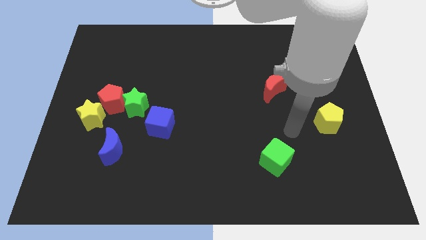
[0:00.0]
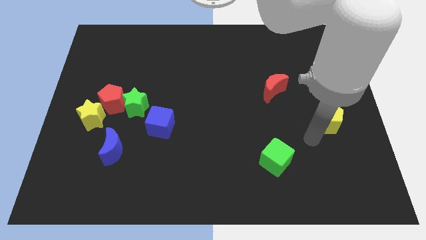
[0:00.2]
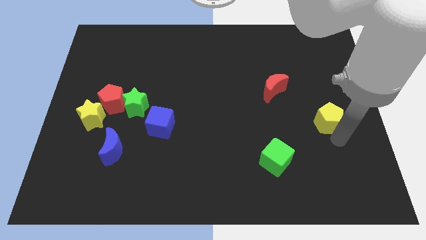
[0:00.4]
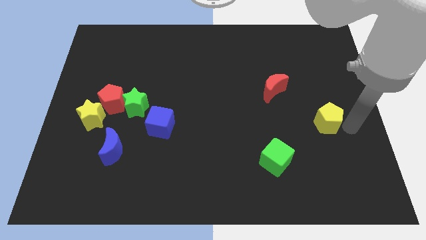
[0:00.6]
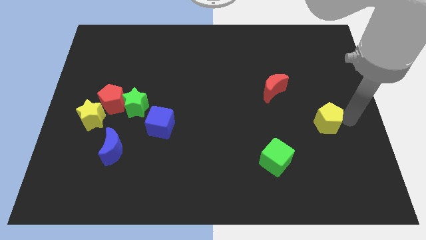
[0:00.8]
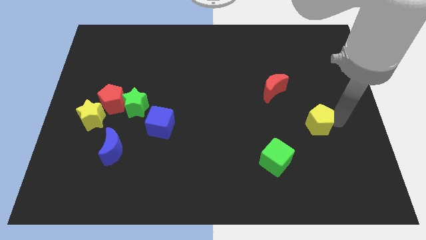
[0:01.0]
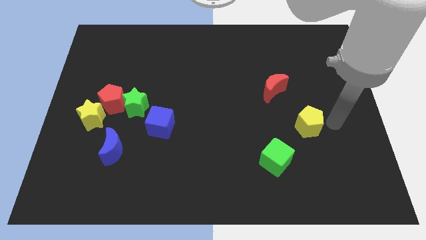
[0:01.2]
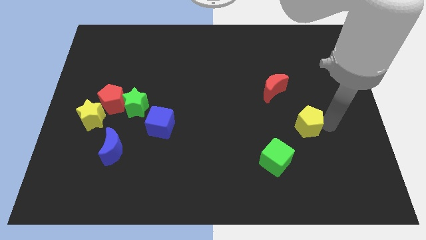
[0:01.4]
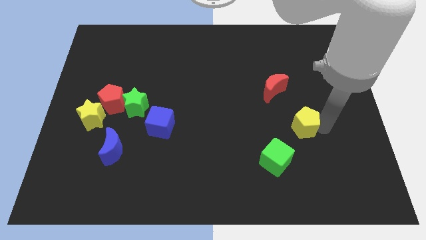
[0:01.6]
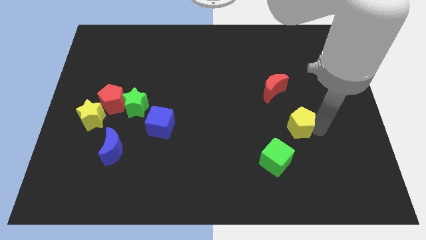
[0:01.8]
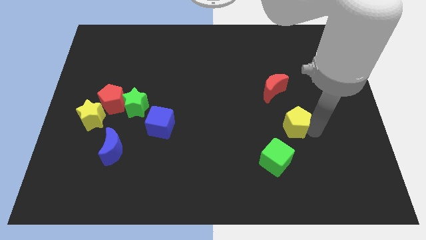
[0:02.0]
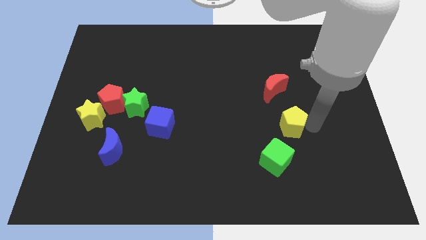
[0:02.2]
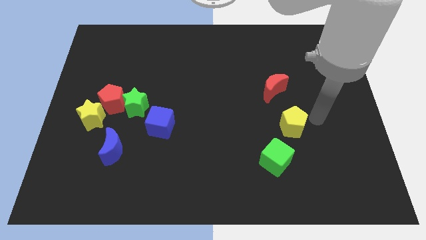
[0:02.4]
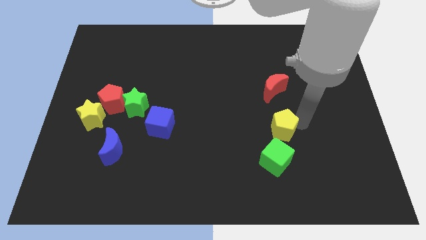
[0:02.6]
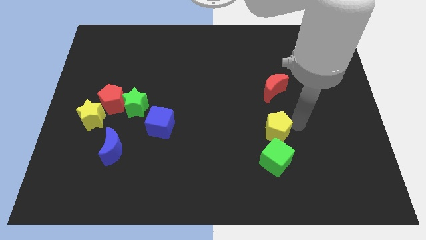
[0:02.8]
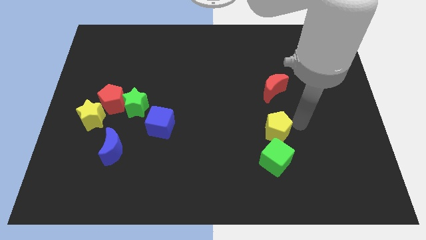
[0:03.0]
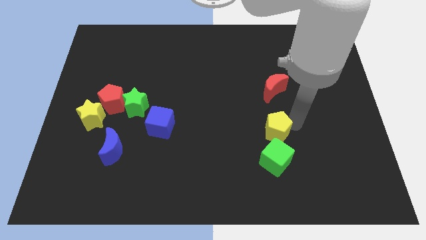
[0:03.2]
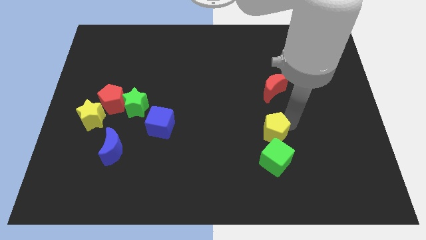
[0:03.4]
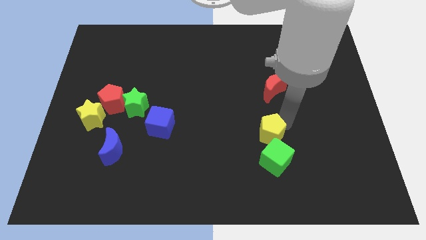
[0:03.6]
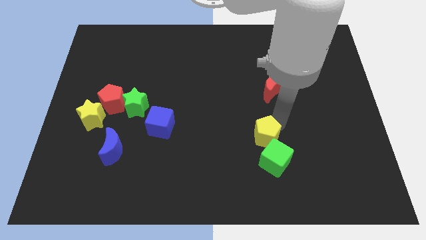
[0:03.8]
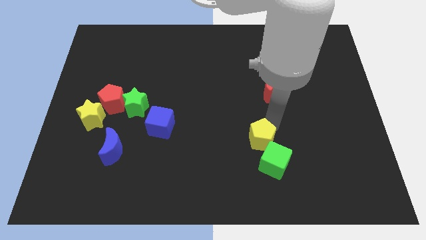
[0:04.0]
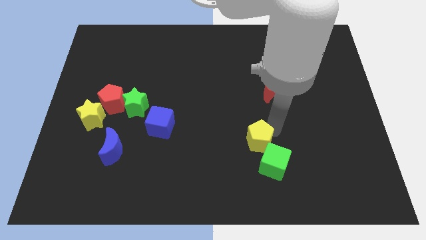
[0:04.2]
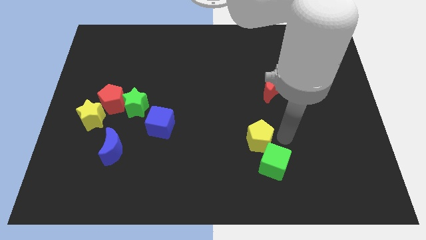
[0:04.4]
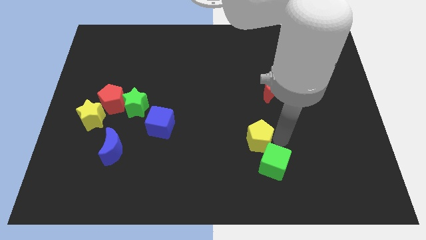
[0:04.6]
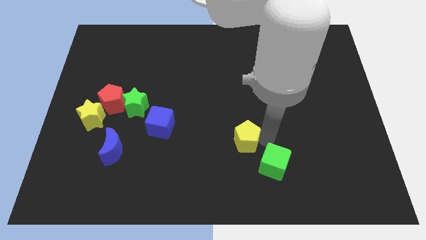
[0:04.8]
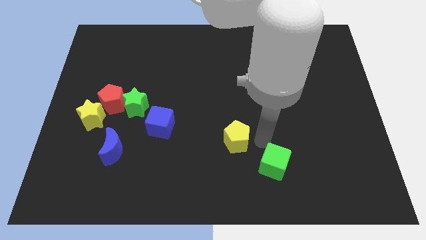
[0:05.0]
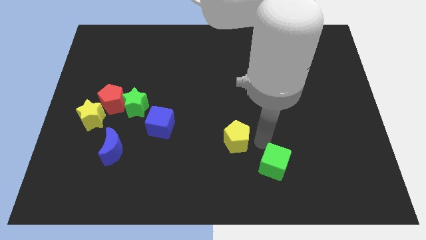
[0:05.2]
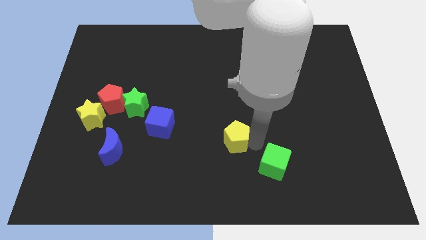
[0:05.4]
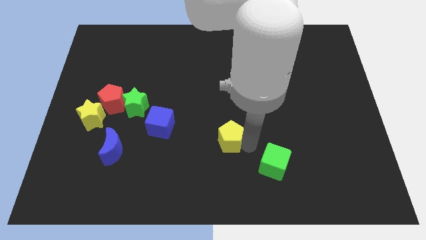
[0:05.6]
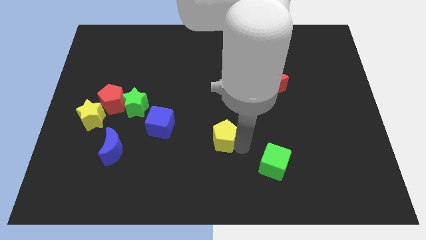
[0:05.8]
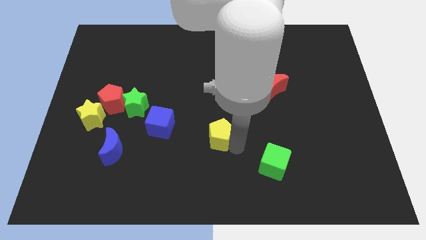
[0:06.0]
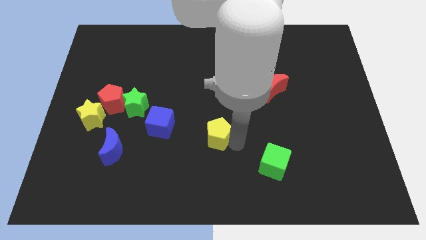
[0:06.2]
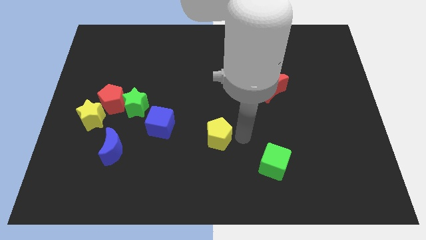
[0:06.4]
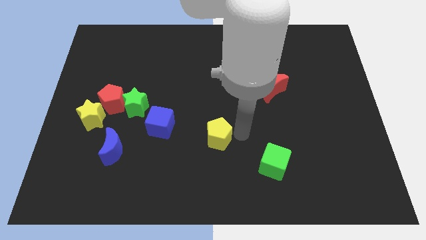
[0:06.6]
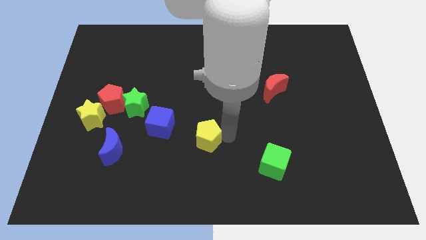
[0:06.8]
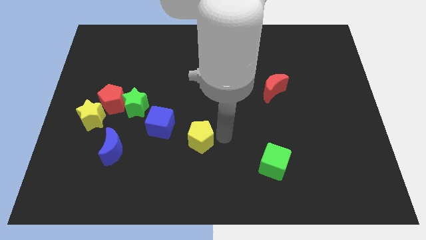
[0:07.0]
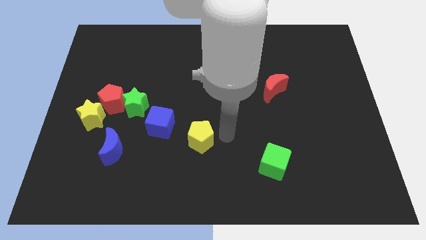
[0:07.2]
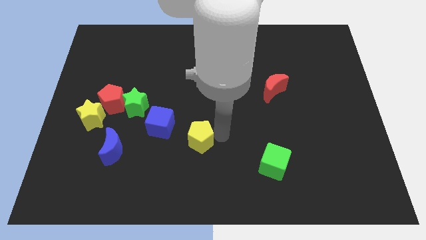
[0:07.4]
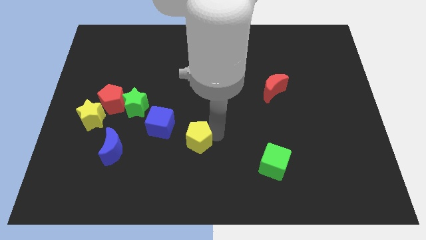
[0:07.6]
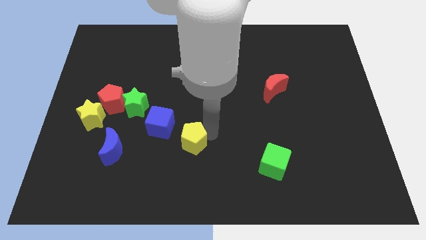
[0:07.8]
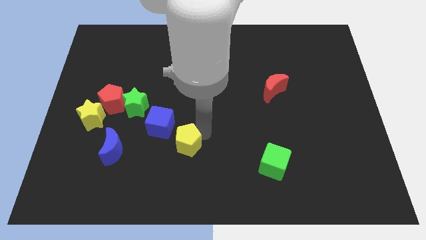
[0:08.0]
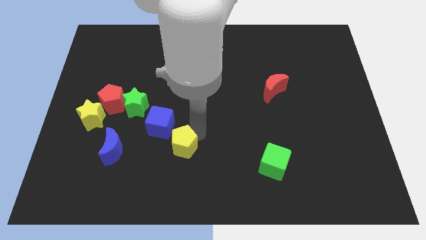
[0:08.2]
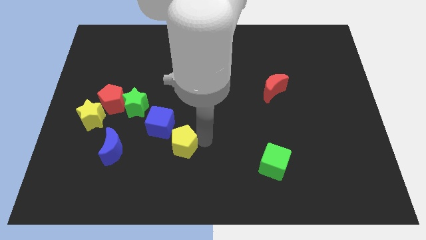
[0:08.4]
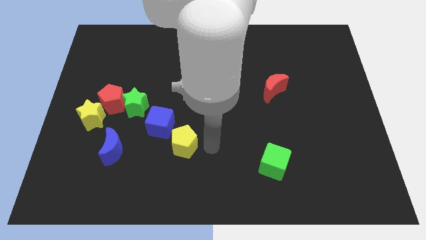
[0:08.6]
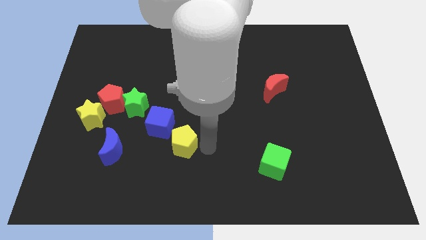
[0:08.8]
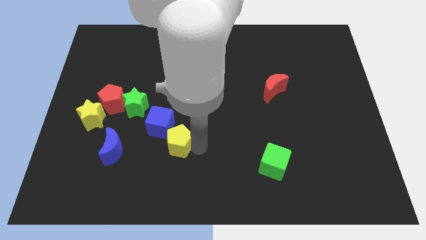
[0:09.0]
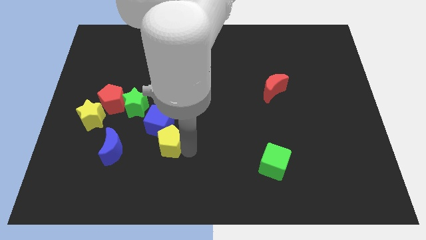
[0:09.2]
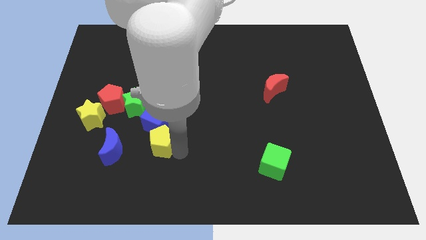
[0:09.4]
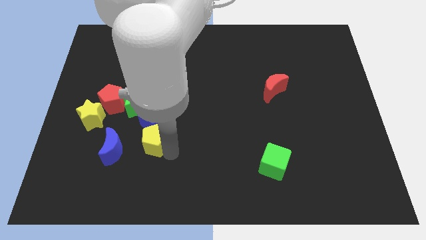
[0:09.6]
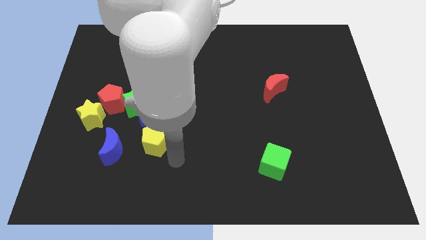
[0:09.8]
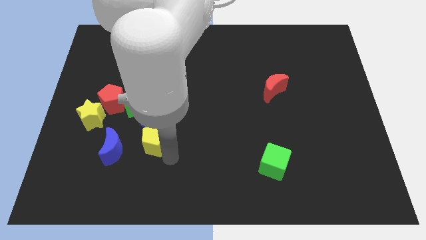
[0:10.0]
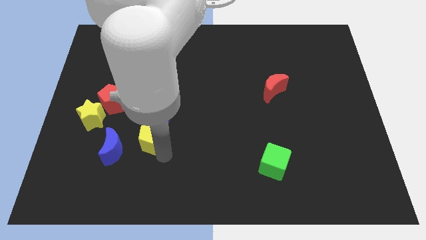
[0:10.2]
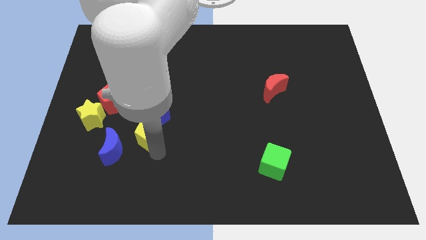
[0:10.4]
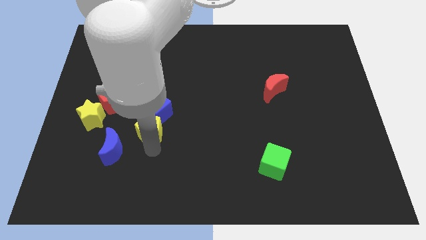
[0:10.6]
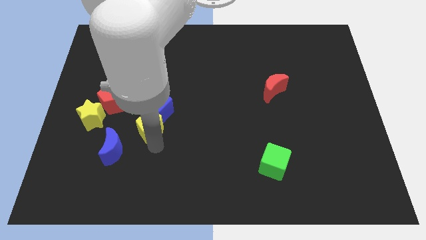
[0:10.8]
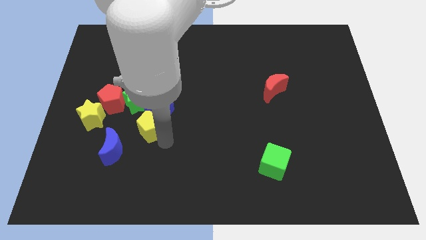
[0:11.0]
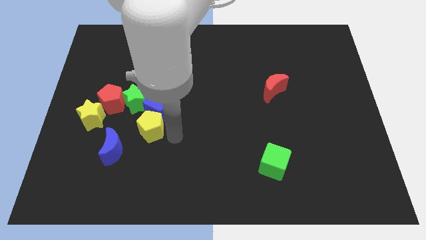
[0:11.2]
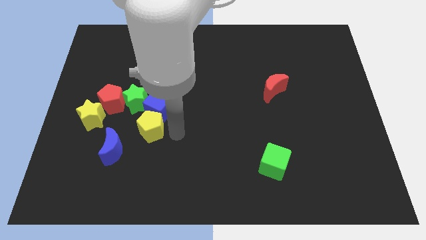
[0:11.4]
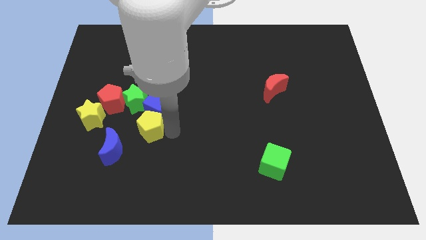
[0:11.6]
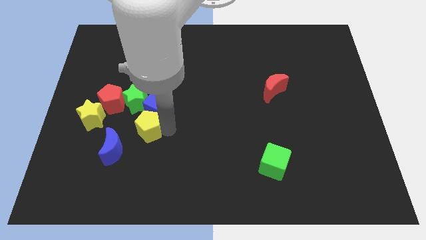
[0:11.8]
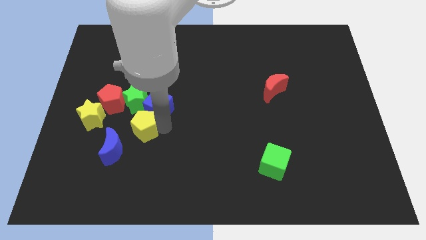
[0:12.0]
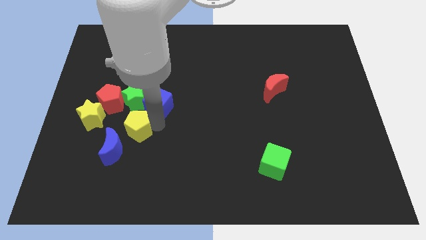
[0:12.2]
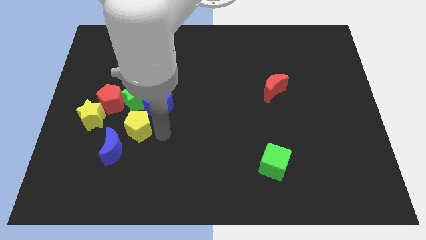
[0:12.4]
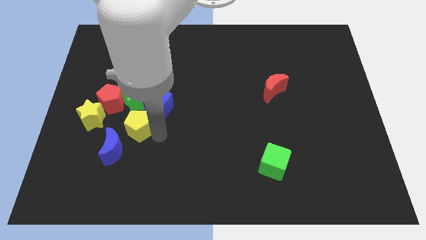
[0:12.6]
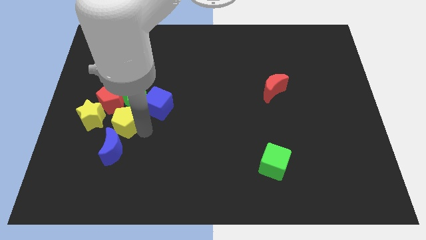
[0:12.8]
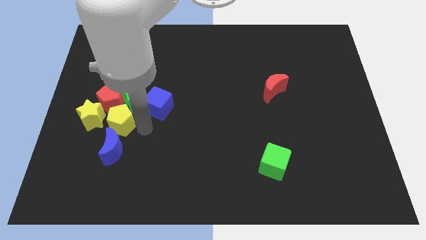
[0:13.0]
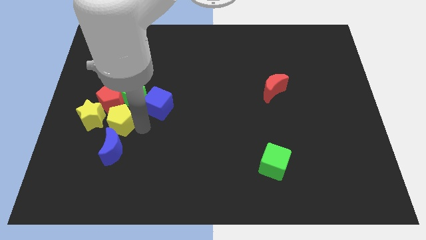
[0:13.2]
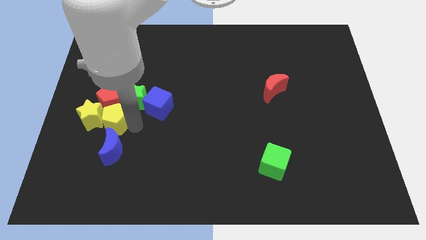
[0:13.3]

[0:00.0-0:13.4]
move the yellow pentagon to the yellow star

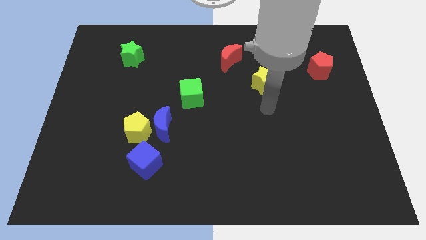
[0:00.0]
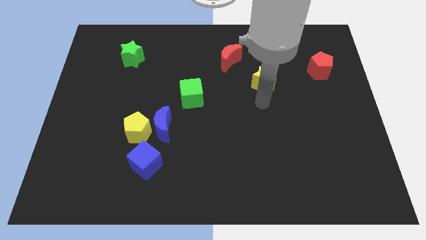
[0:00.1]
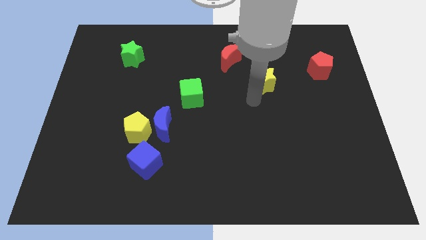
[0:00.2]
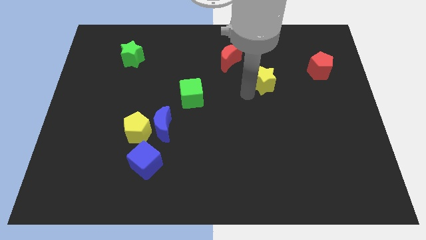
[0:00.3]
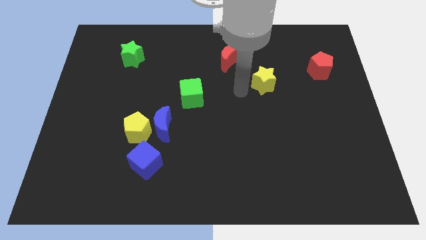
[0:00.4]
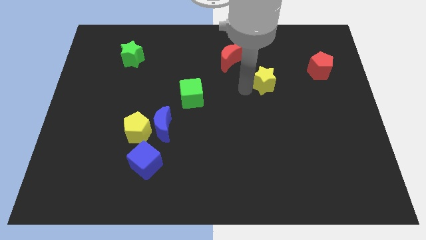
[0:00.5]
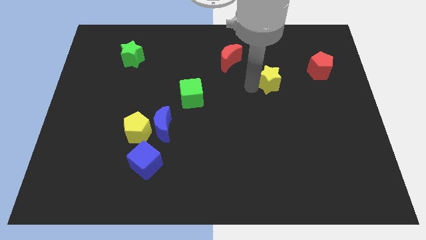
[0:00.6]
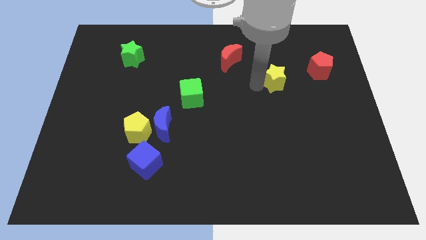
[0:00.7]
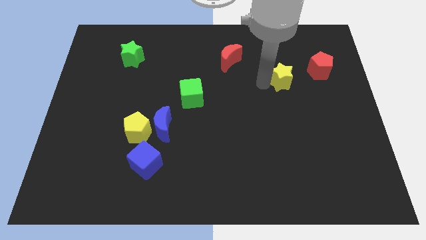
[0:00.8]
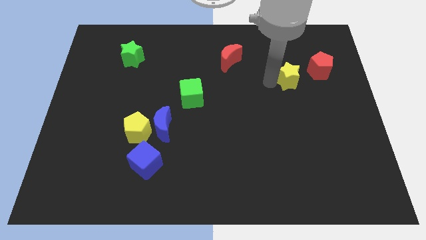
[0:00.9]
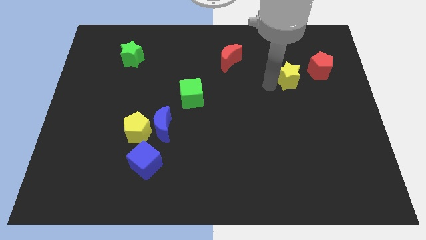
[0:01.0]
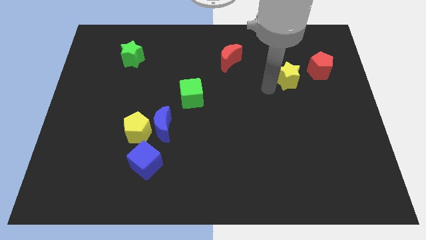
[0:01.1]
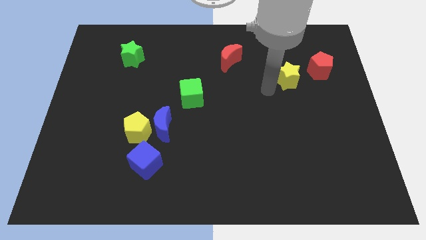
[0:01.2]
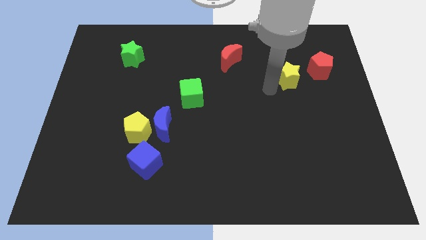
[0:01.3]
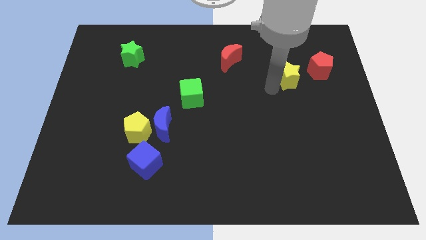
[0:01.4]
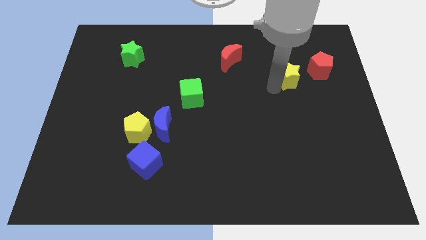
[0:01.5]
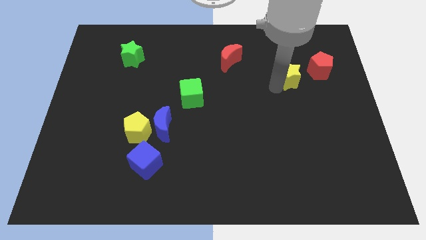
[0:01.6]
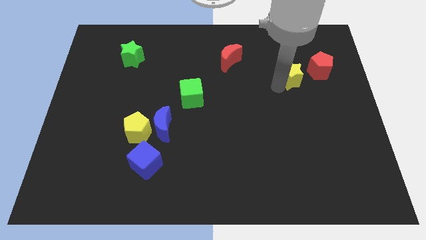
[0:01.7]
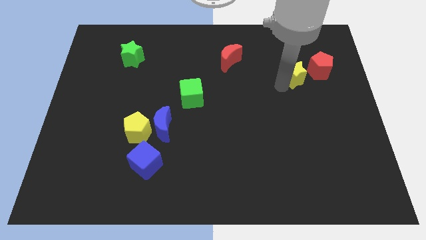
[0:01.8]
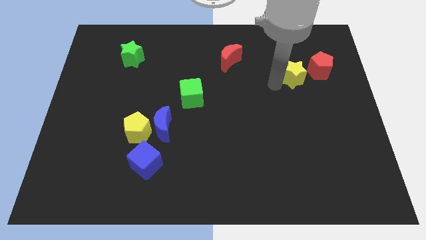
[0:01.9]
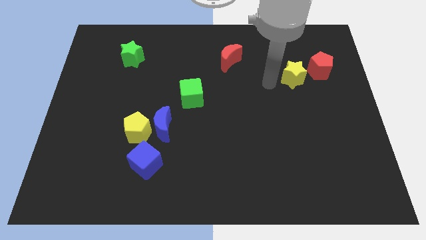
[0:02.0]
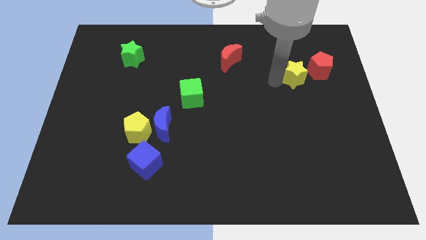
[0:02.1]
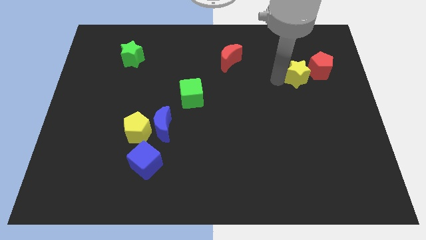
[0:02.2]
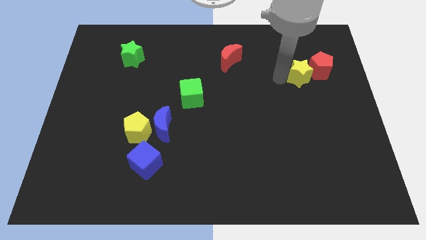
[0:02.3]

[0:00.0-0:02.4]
put the yellow star to the red pentagon
